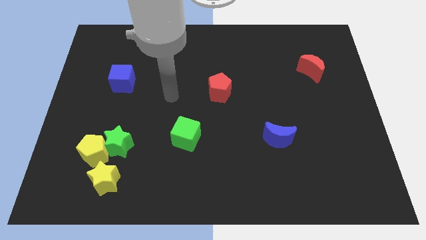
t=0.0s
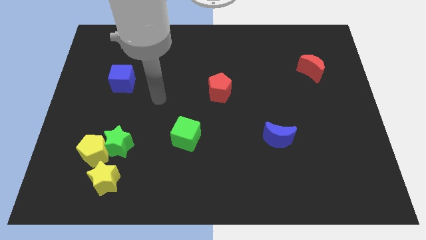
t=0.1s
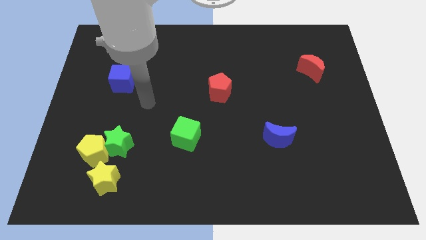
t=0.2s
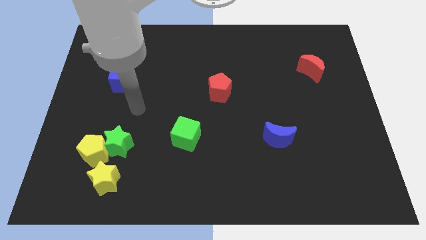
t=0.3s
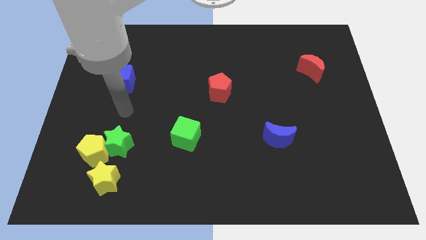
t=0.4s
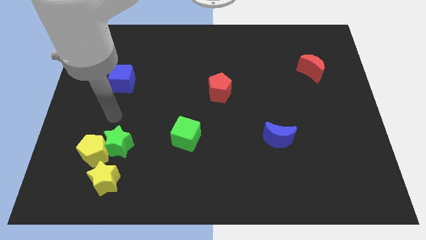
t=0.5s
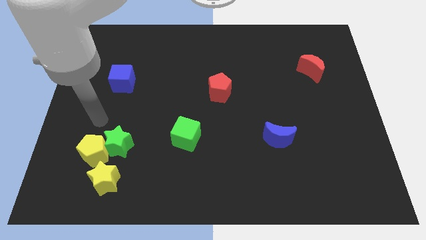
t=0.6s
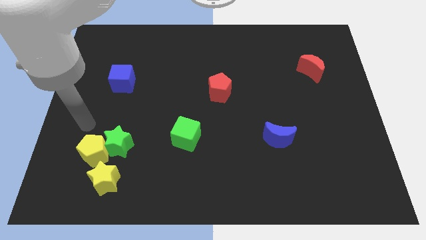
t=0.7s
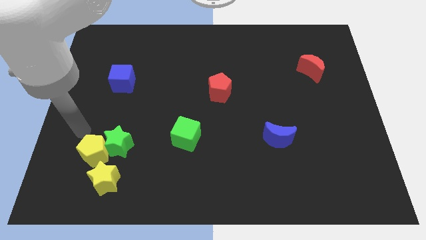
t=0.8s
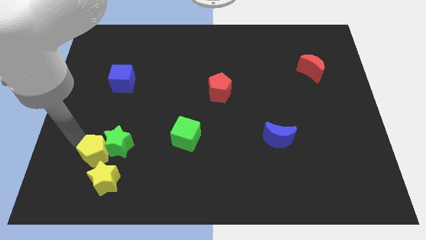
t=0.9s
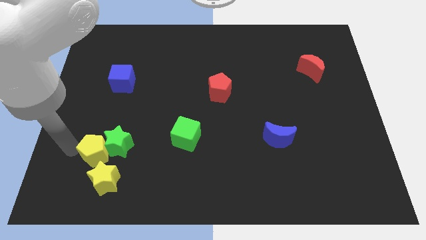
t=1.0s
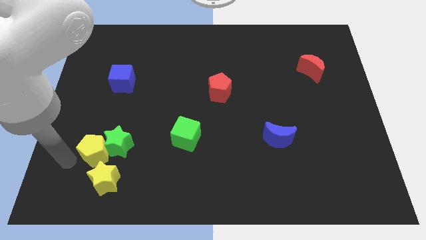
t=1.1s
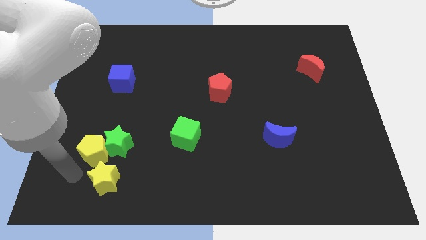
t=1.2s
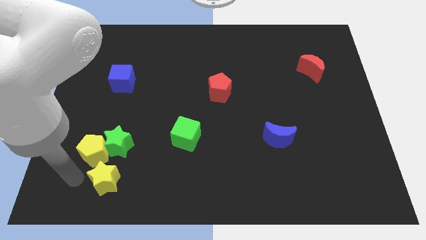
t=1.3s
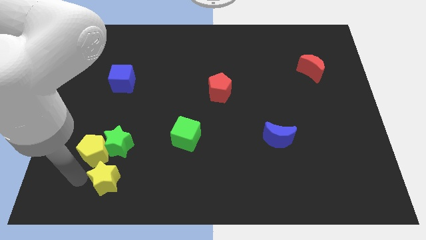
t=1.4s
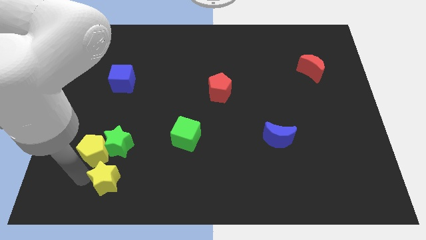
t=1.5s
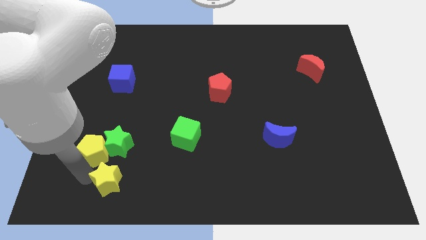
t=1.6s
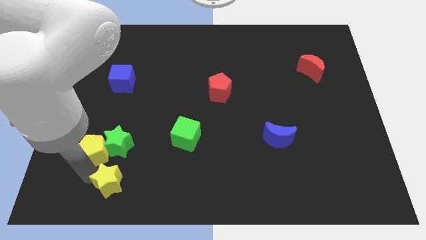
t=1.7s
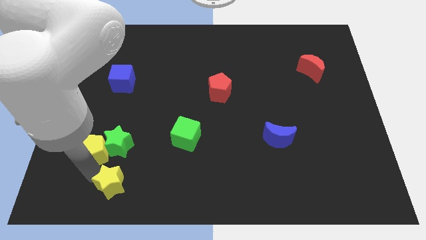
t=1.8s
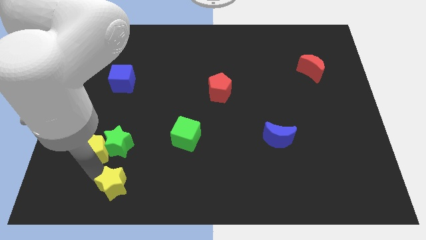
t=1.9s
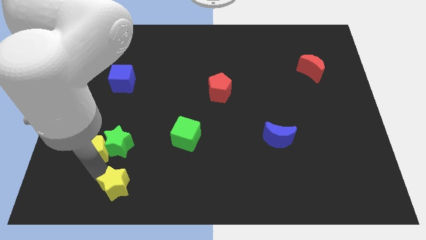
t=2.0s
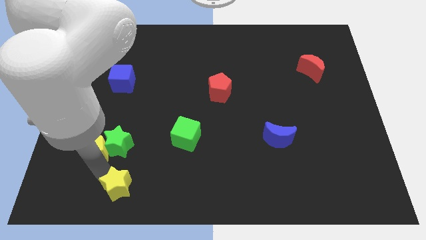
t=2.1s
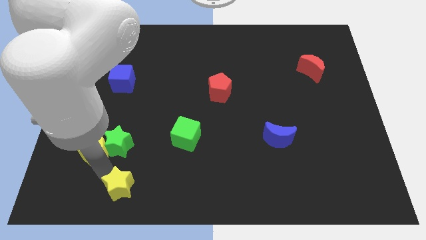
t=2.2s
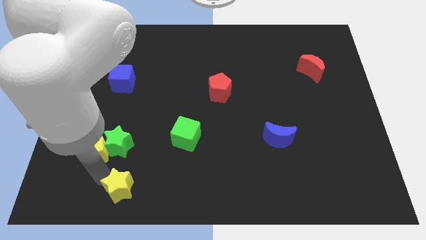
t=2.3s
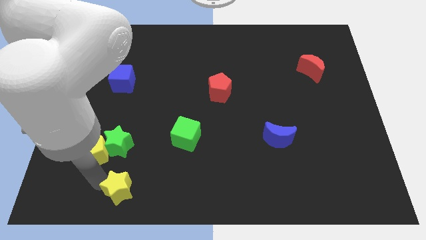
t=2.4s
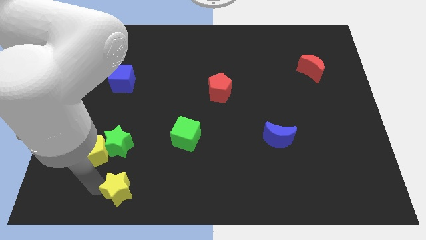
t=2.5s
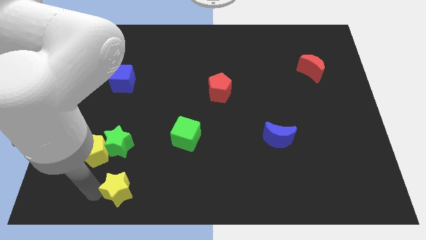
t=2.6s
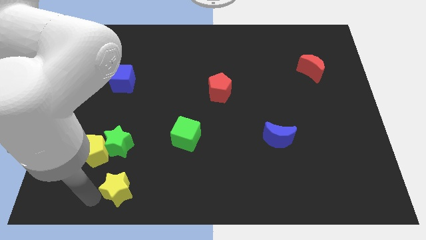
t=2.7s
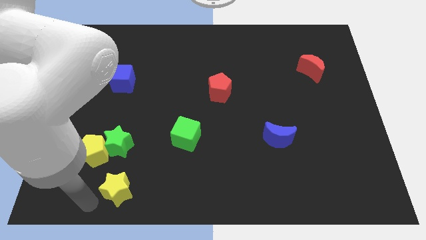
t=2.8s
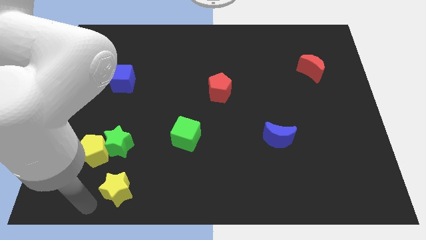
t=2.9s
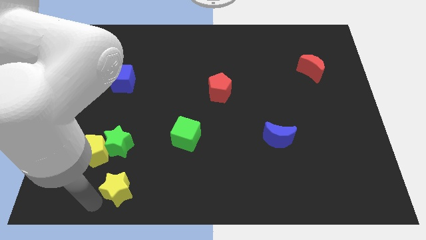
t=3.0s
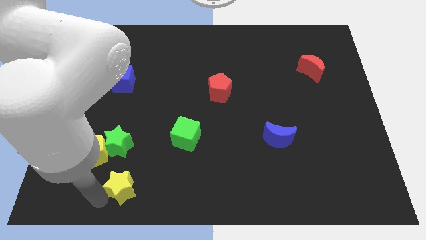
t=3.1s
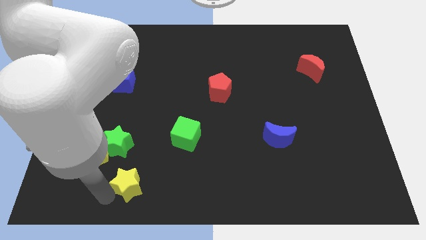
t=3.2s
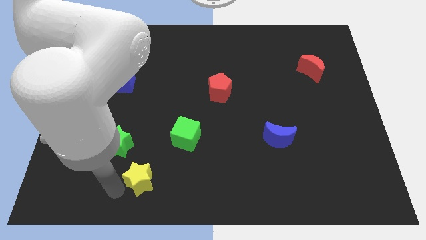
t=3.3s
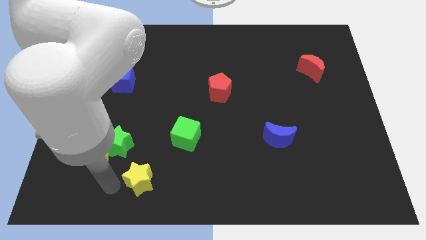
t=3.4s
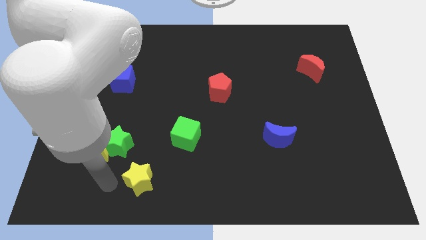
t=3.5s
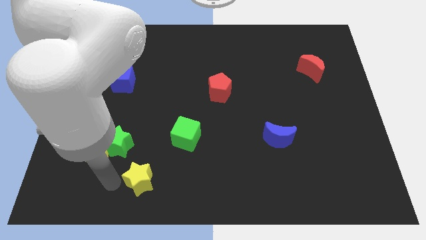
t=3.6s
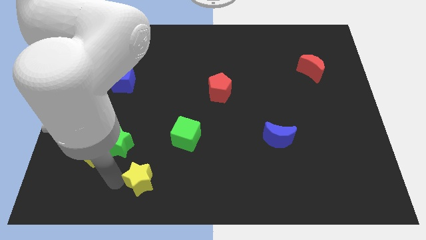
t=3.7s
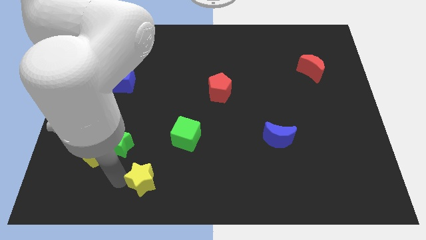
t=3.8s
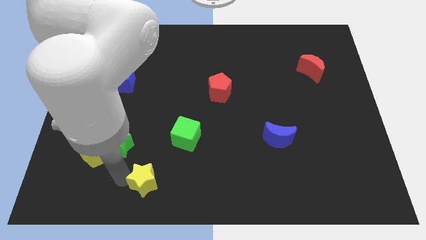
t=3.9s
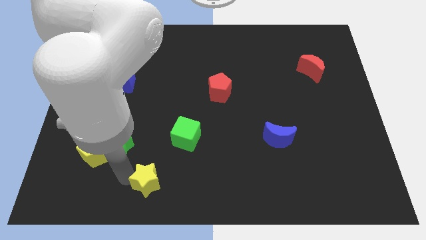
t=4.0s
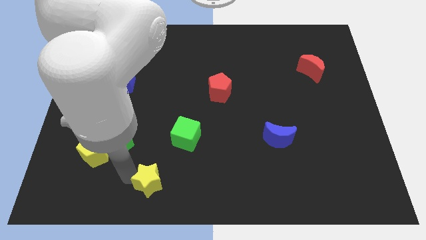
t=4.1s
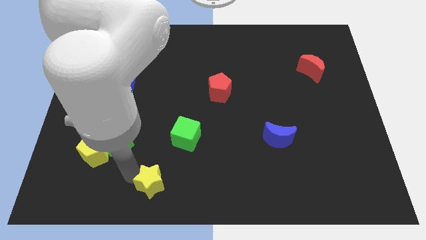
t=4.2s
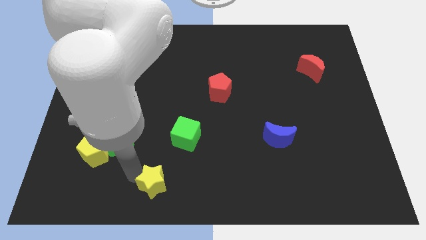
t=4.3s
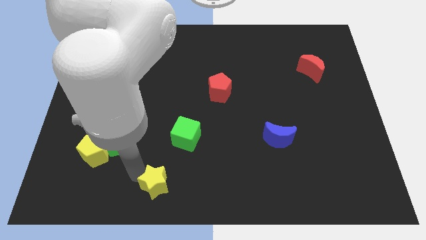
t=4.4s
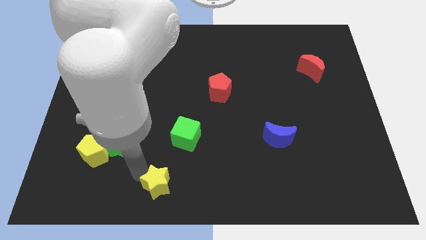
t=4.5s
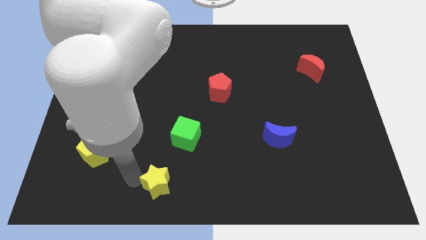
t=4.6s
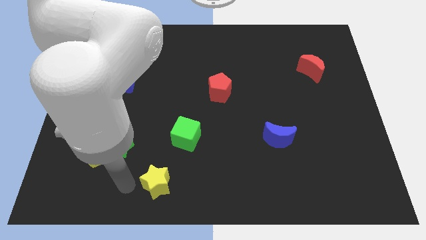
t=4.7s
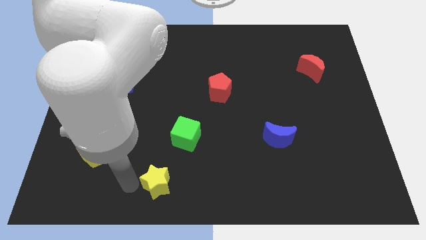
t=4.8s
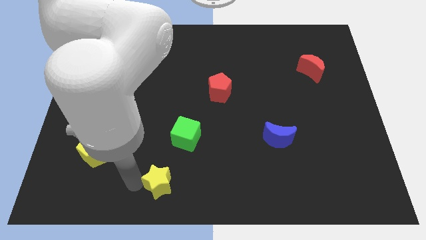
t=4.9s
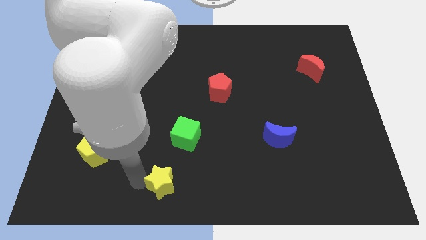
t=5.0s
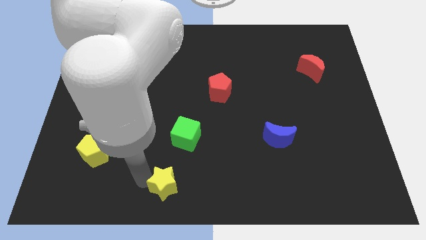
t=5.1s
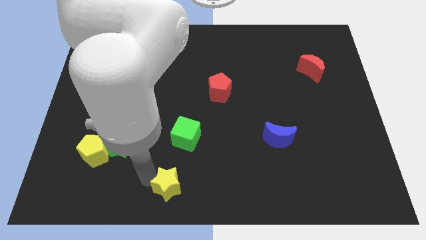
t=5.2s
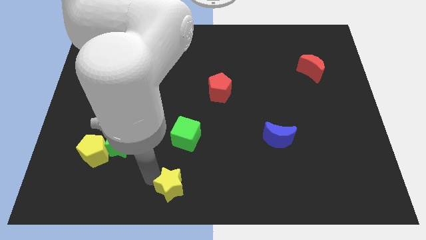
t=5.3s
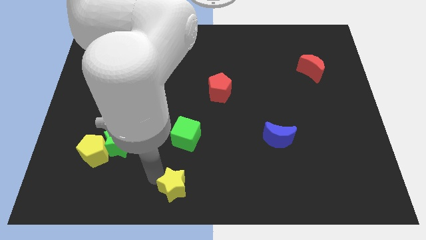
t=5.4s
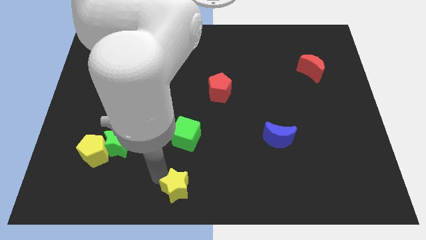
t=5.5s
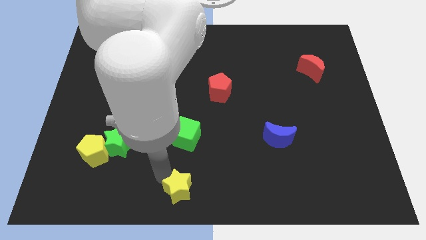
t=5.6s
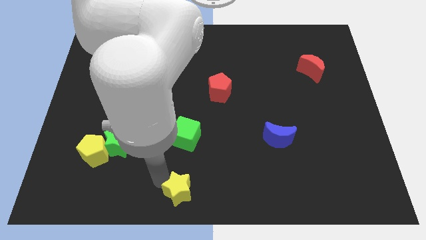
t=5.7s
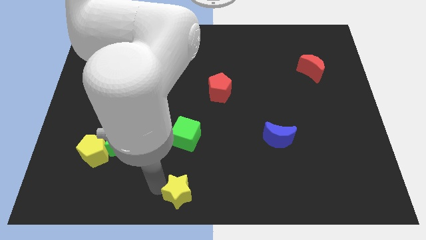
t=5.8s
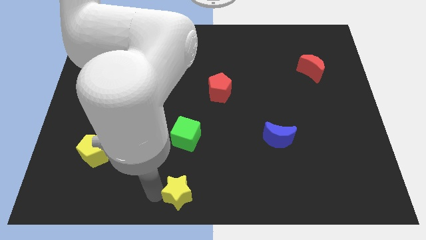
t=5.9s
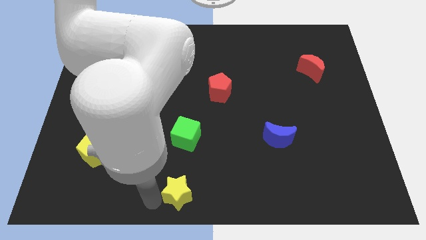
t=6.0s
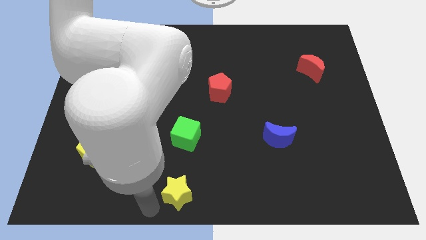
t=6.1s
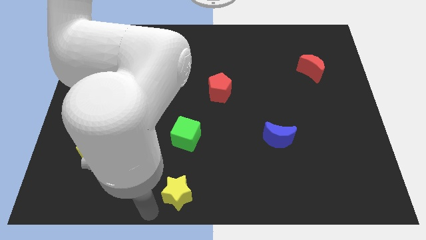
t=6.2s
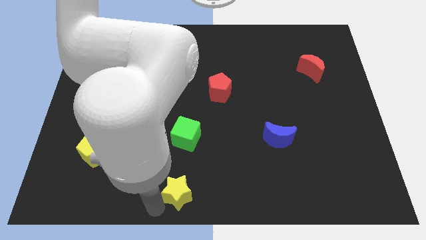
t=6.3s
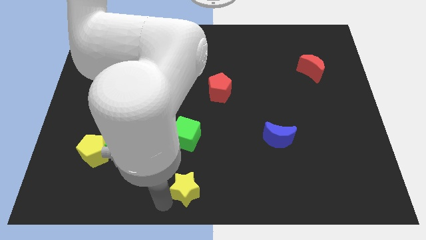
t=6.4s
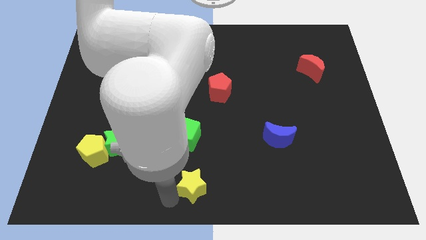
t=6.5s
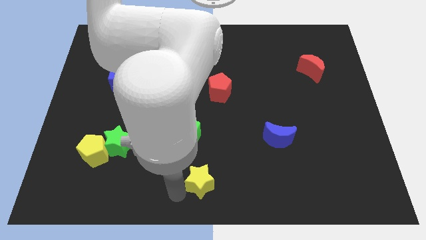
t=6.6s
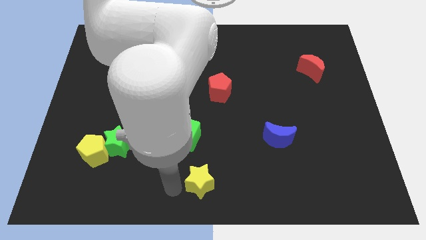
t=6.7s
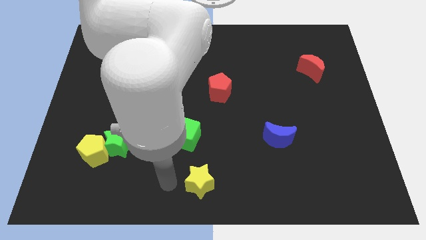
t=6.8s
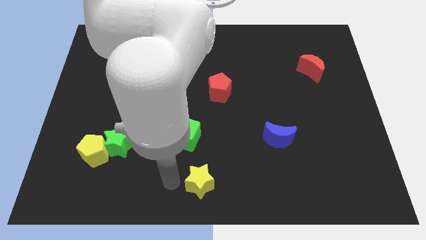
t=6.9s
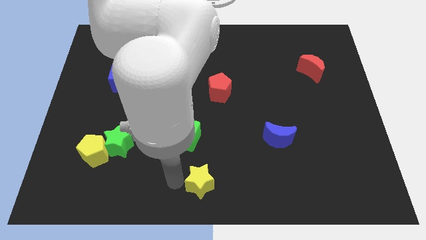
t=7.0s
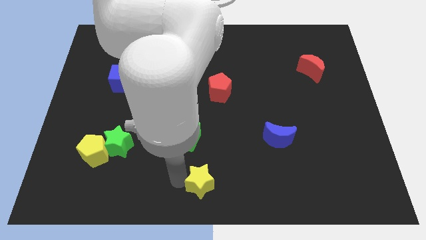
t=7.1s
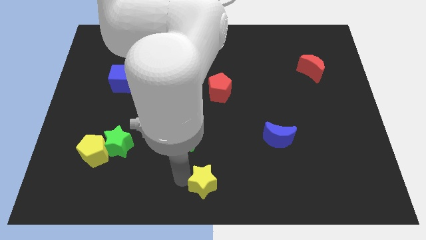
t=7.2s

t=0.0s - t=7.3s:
push the yellow star right

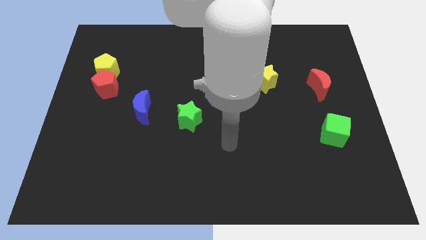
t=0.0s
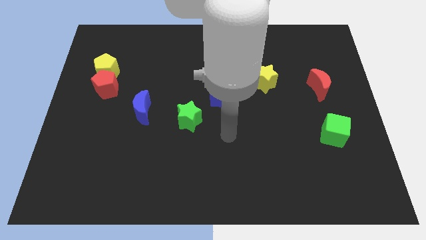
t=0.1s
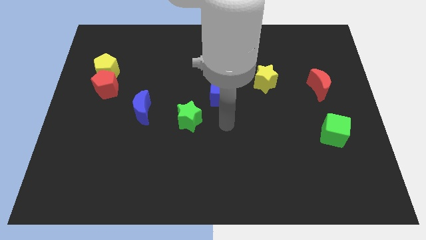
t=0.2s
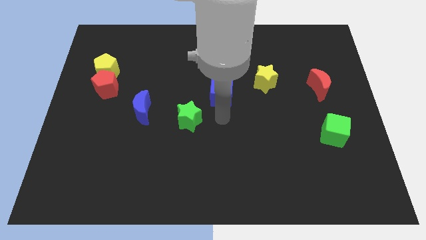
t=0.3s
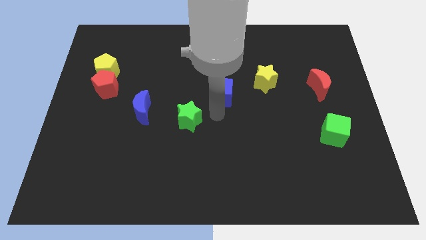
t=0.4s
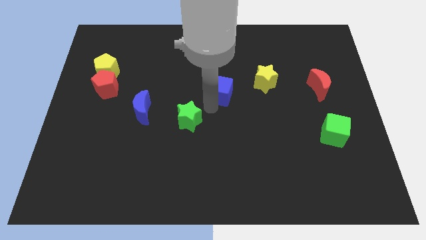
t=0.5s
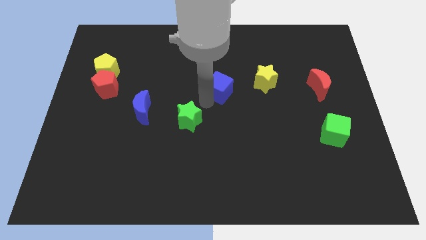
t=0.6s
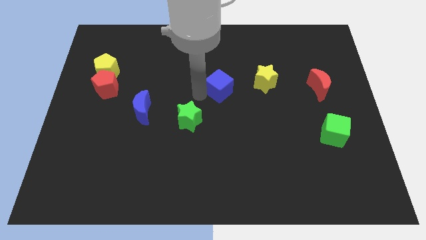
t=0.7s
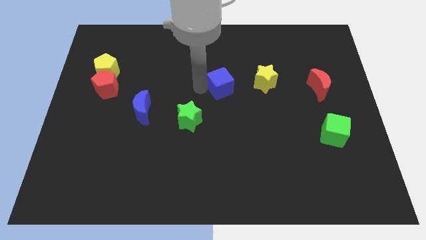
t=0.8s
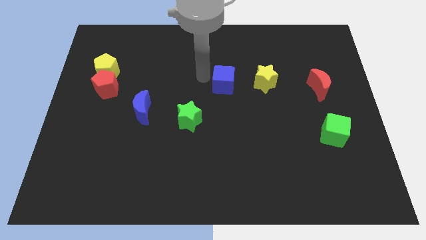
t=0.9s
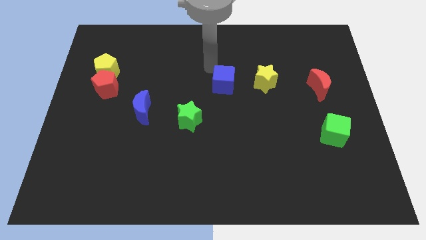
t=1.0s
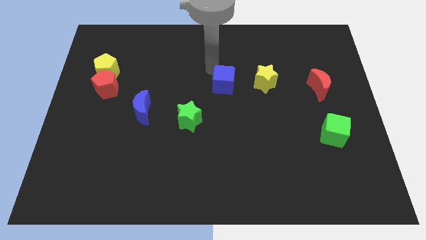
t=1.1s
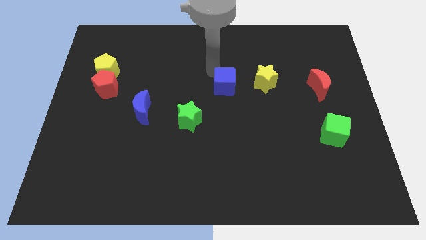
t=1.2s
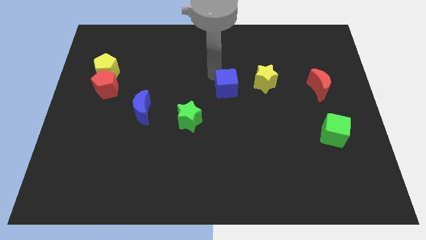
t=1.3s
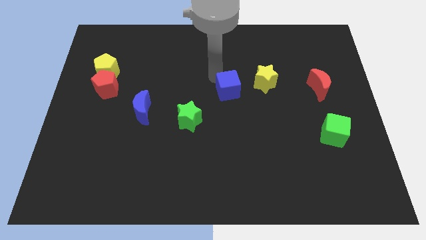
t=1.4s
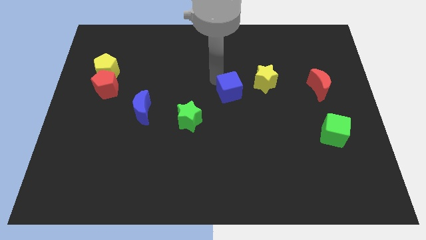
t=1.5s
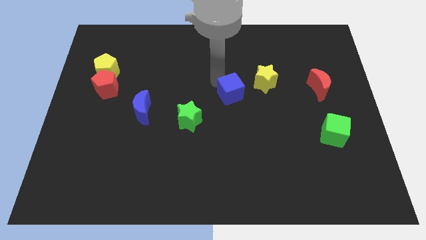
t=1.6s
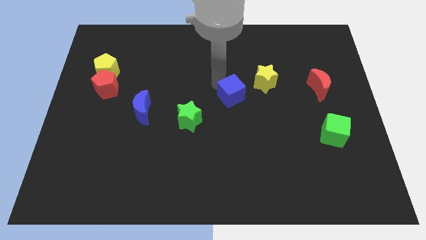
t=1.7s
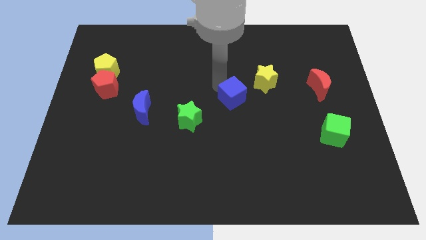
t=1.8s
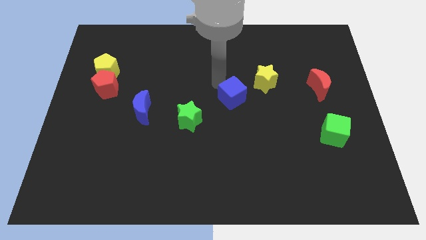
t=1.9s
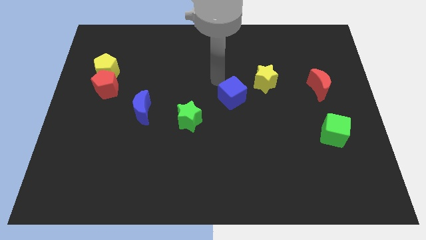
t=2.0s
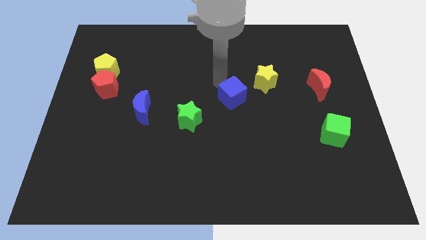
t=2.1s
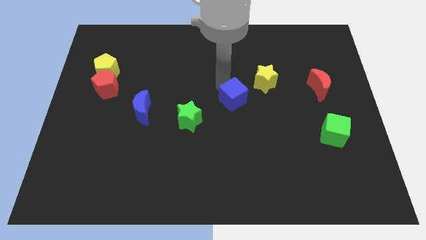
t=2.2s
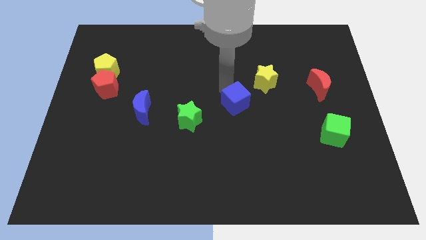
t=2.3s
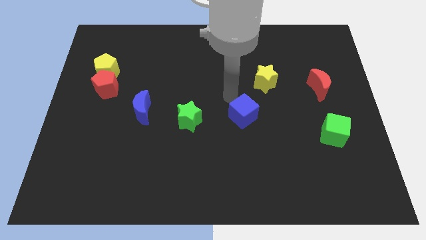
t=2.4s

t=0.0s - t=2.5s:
slide the blue cube diagonally downwards and to the right a little
